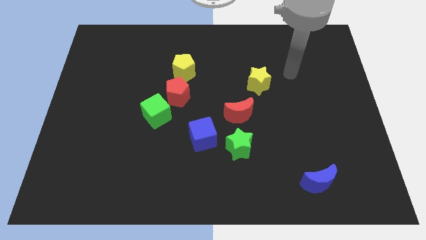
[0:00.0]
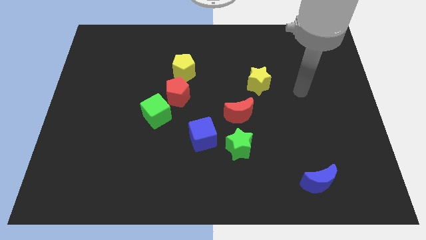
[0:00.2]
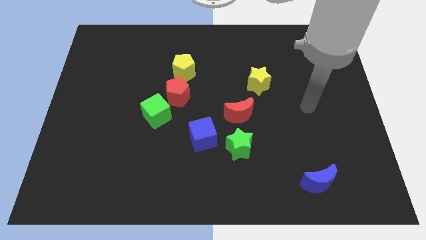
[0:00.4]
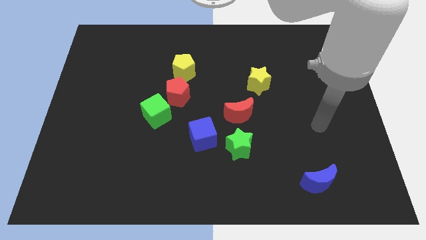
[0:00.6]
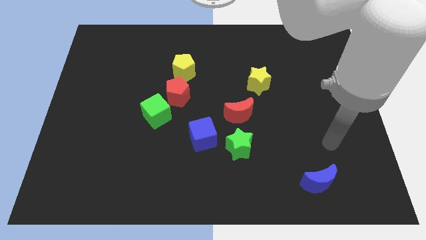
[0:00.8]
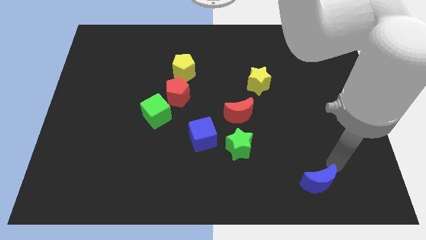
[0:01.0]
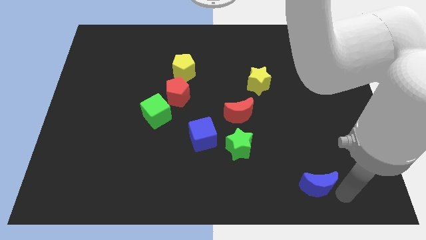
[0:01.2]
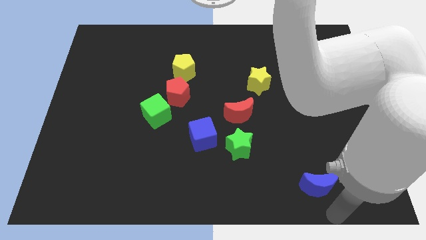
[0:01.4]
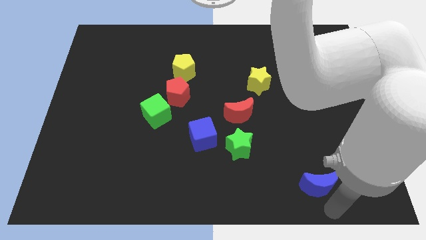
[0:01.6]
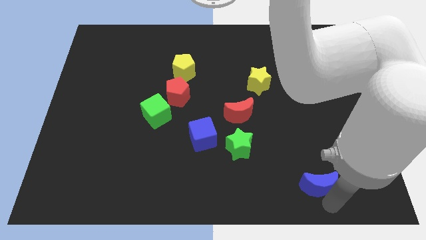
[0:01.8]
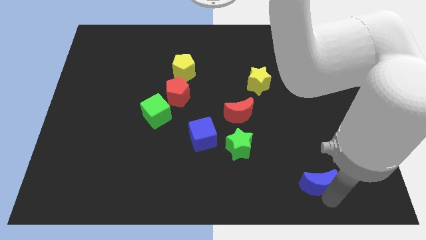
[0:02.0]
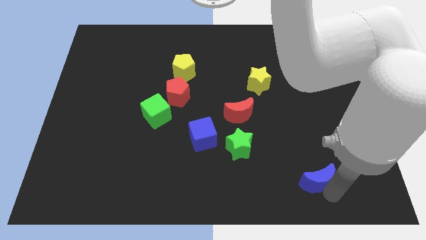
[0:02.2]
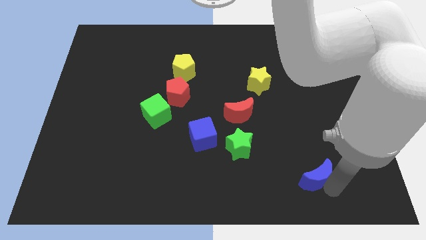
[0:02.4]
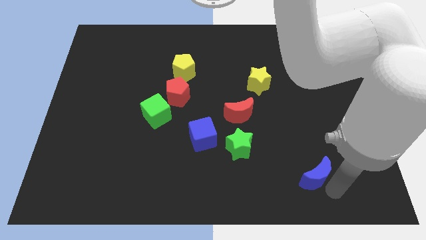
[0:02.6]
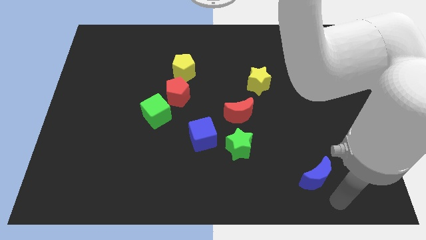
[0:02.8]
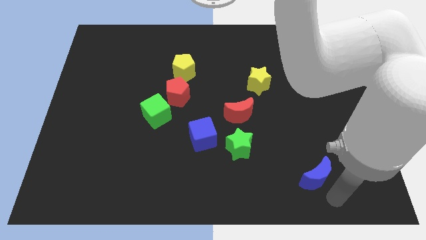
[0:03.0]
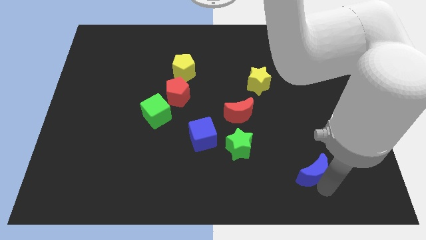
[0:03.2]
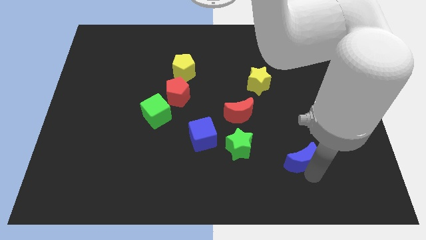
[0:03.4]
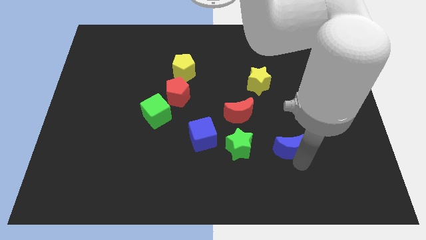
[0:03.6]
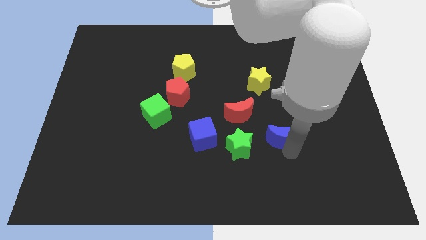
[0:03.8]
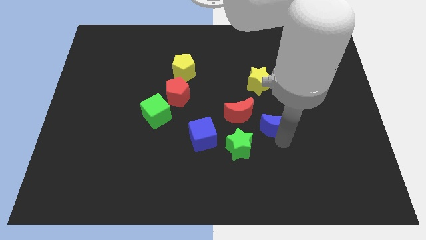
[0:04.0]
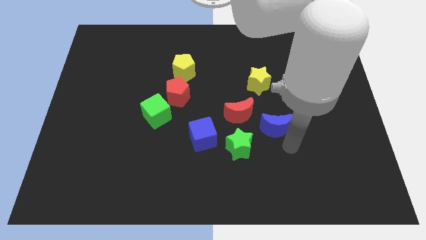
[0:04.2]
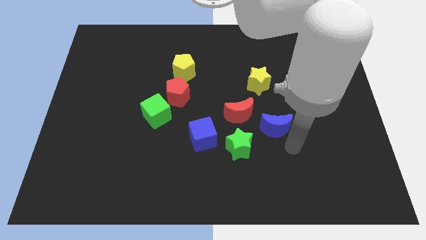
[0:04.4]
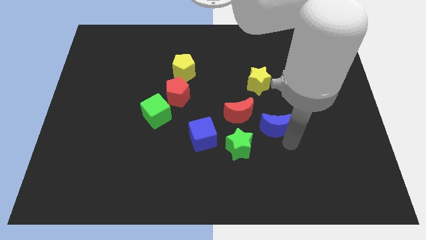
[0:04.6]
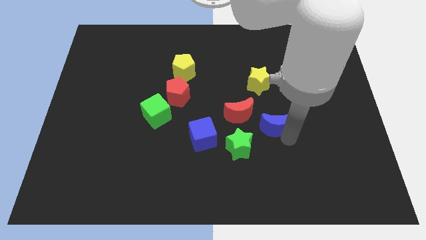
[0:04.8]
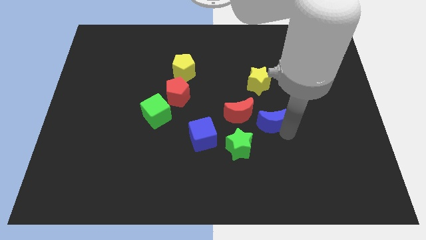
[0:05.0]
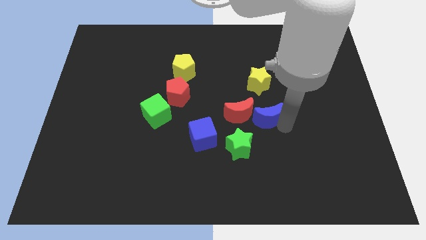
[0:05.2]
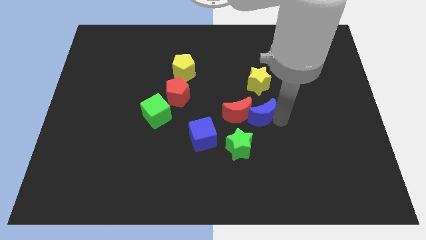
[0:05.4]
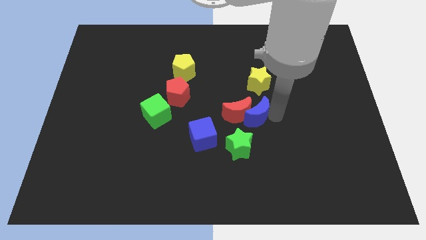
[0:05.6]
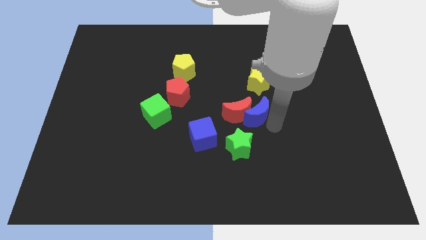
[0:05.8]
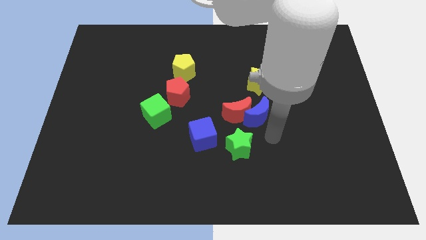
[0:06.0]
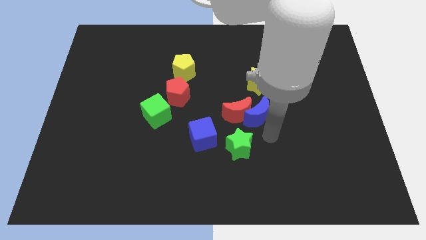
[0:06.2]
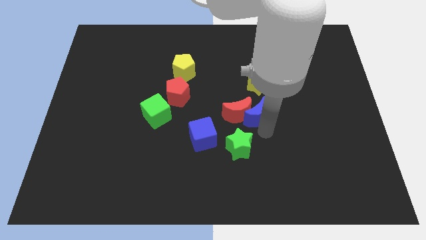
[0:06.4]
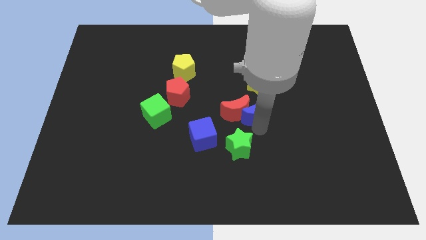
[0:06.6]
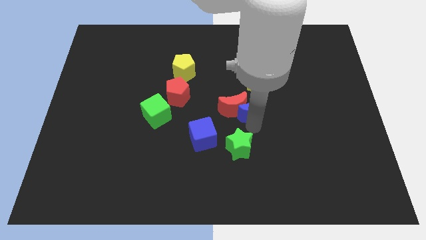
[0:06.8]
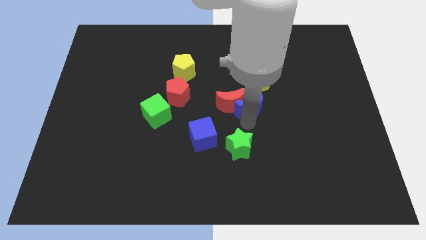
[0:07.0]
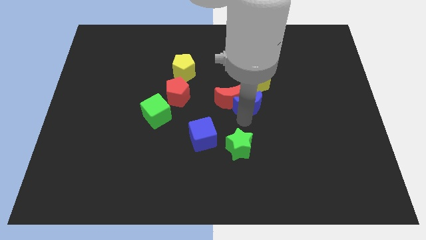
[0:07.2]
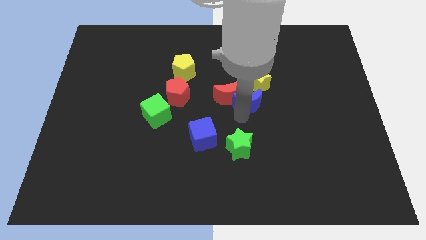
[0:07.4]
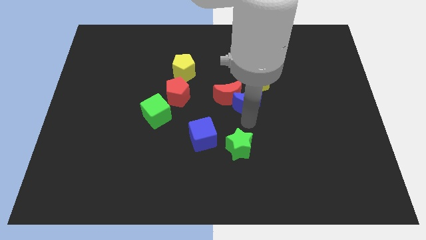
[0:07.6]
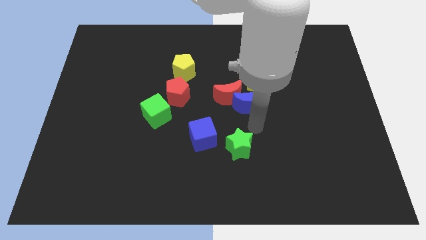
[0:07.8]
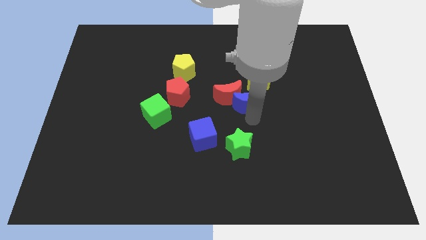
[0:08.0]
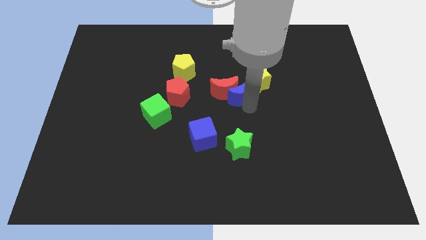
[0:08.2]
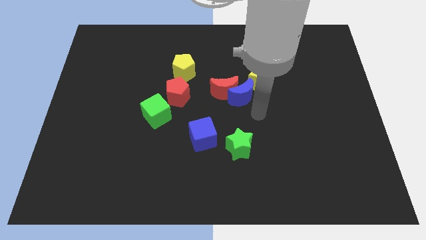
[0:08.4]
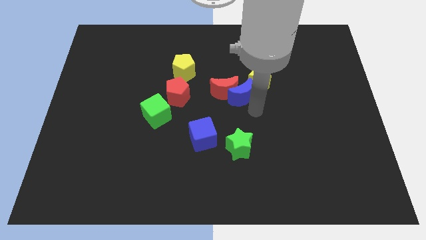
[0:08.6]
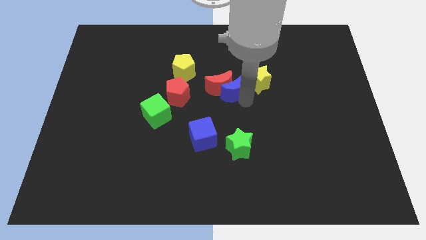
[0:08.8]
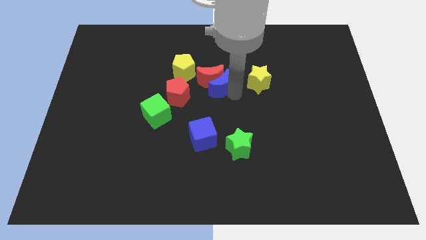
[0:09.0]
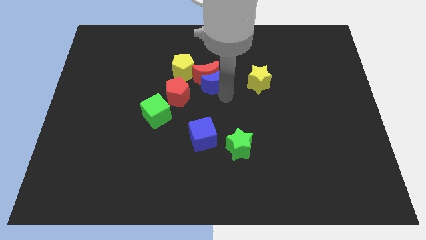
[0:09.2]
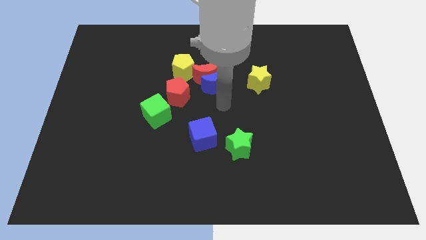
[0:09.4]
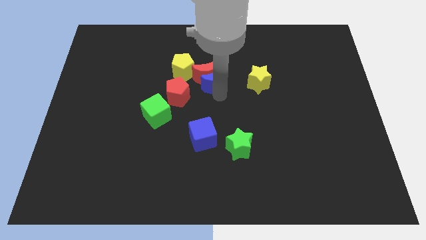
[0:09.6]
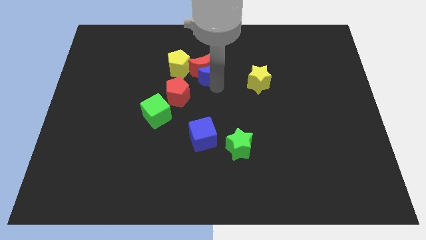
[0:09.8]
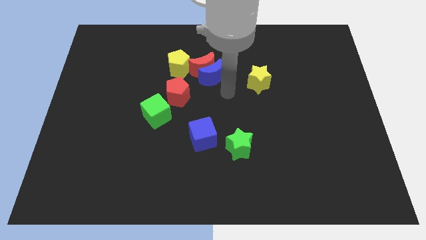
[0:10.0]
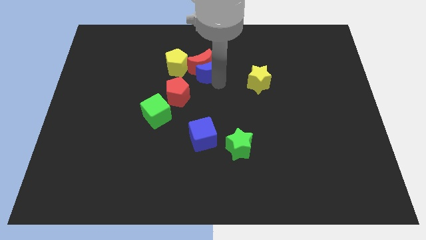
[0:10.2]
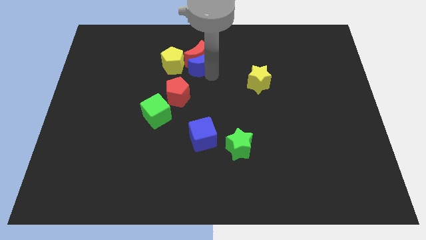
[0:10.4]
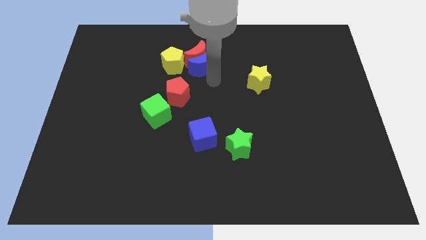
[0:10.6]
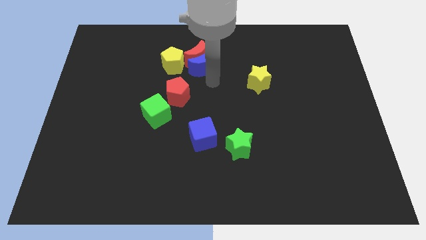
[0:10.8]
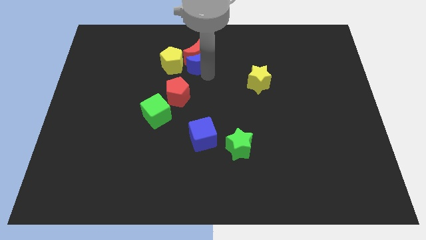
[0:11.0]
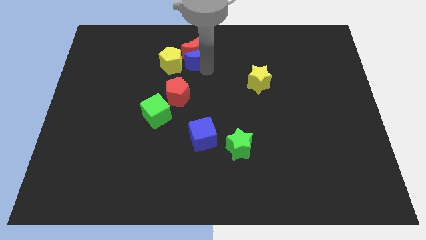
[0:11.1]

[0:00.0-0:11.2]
slide the blue moon above the red pentagon

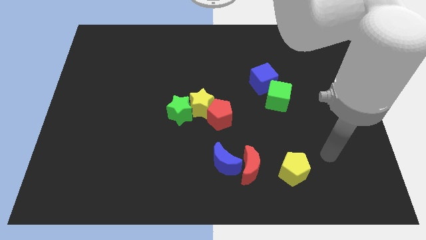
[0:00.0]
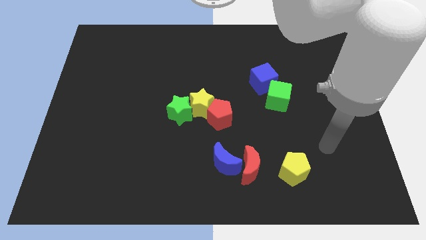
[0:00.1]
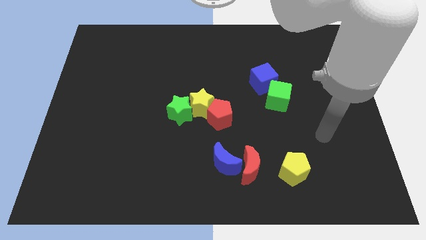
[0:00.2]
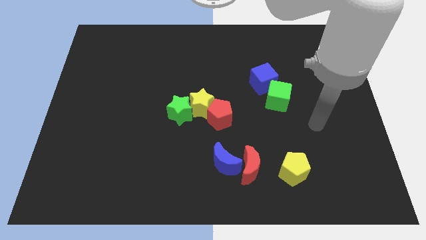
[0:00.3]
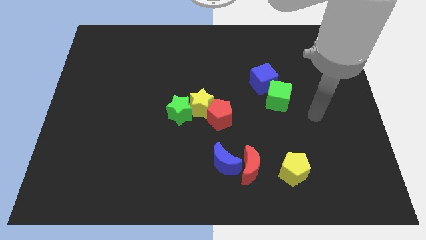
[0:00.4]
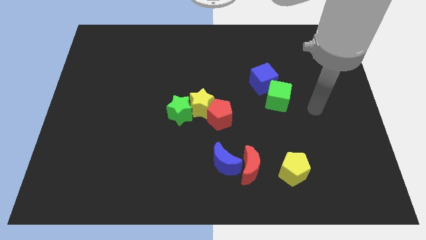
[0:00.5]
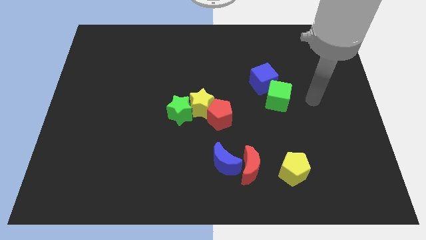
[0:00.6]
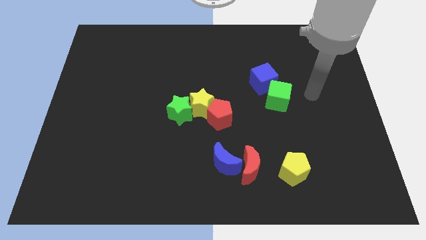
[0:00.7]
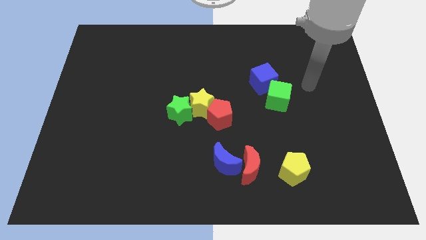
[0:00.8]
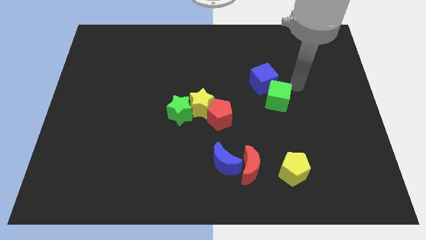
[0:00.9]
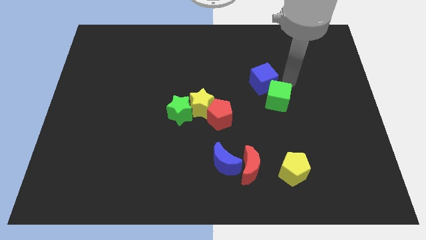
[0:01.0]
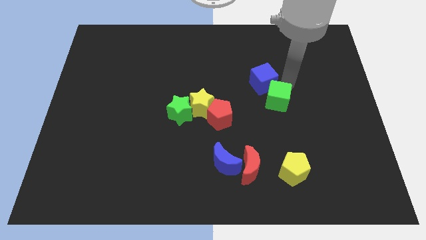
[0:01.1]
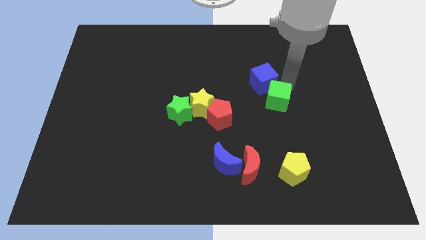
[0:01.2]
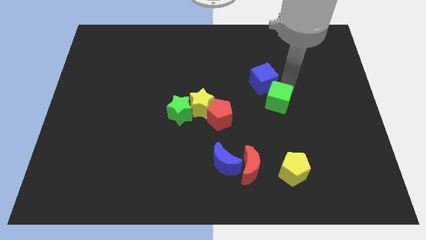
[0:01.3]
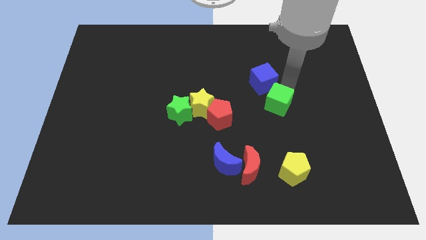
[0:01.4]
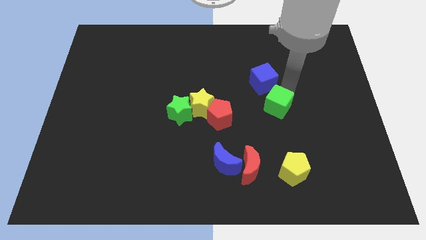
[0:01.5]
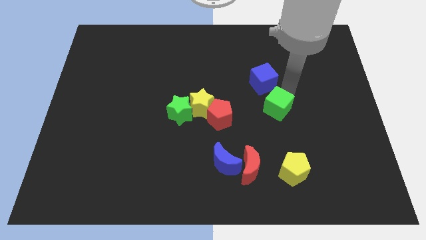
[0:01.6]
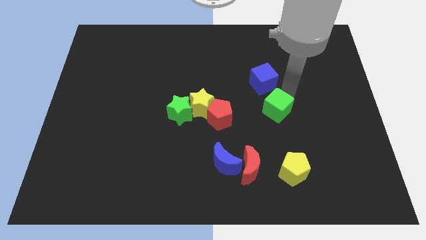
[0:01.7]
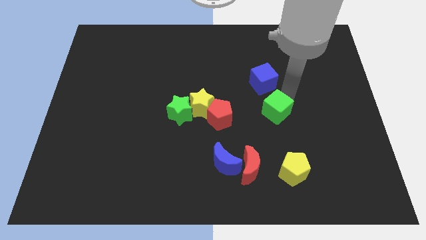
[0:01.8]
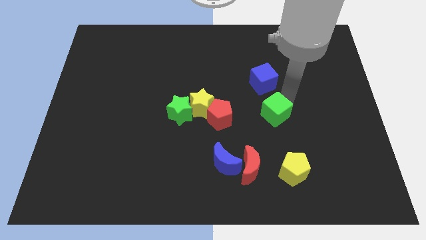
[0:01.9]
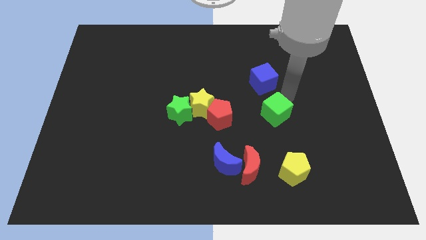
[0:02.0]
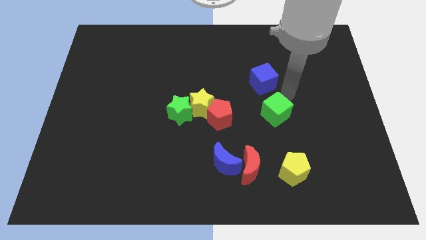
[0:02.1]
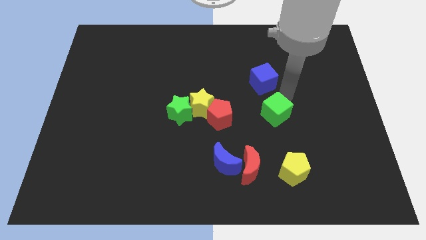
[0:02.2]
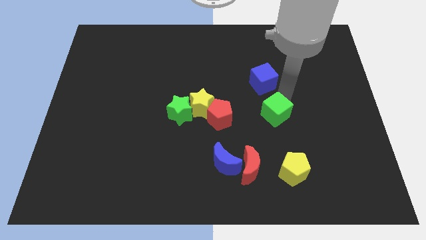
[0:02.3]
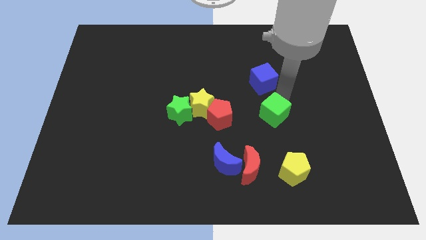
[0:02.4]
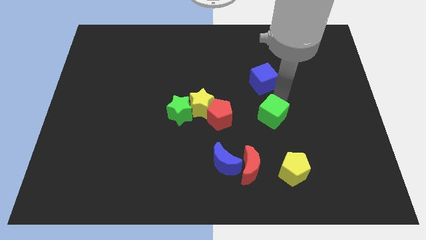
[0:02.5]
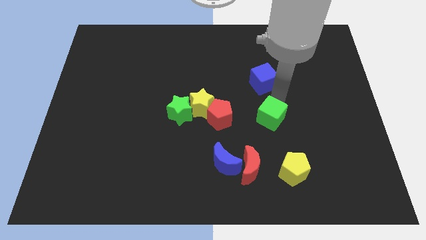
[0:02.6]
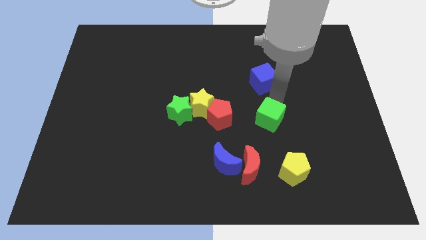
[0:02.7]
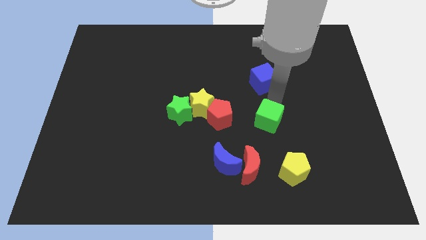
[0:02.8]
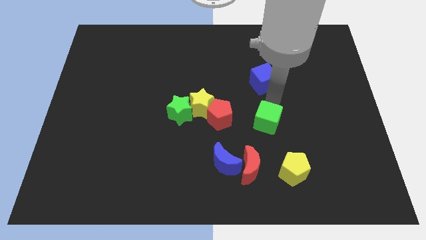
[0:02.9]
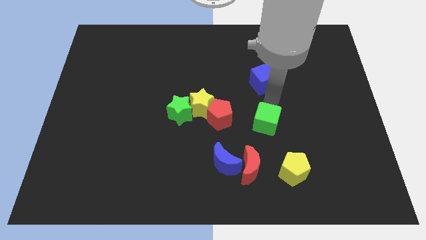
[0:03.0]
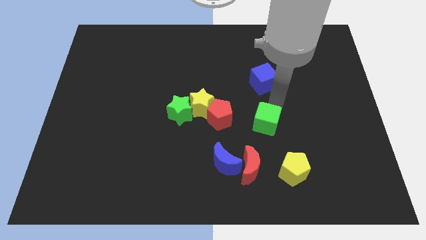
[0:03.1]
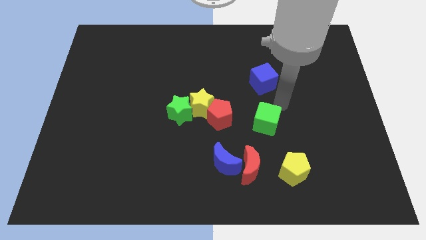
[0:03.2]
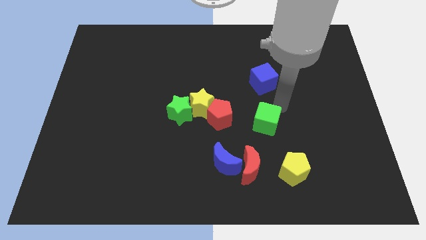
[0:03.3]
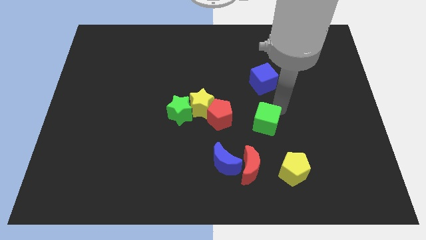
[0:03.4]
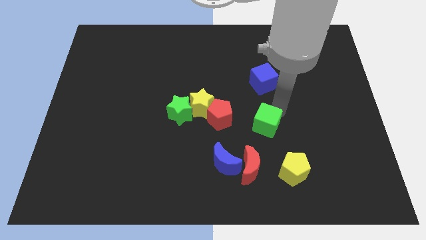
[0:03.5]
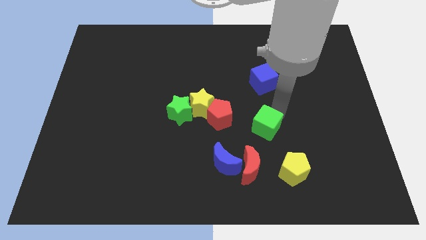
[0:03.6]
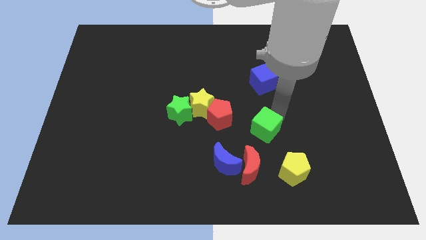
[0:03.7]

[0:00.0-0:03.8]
slide the green cube to the top right of the blue moon
